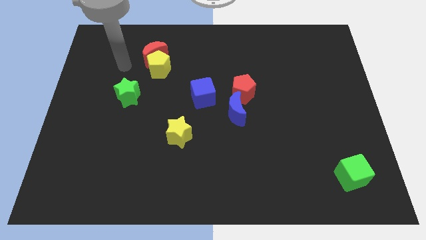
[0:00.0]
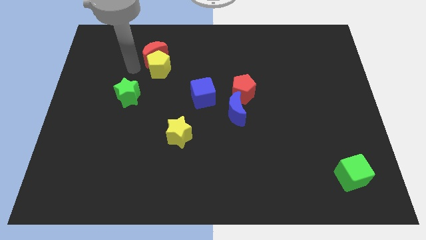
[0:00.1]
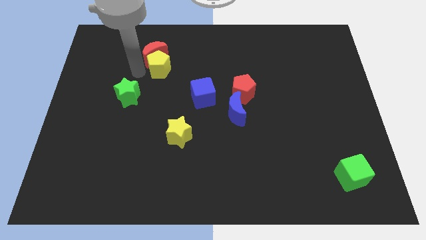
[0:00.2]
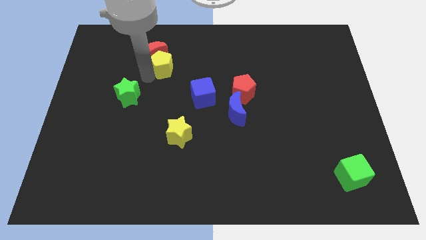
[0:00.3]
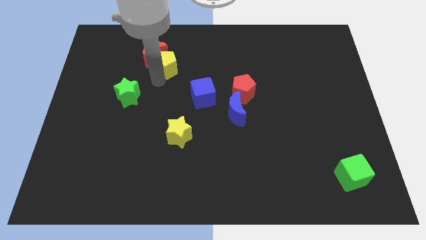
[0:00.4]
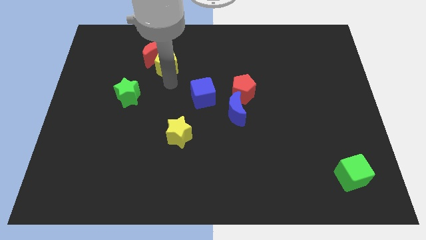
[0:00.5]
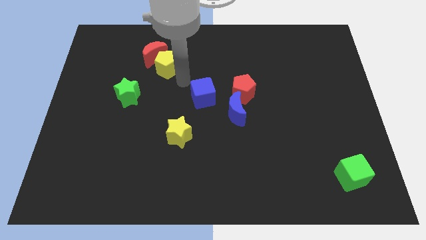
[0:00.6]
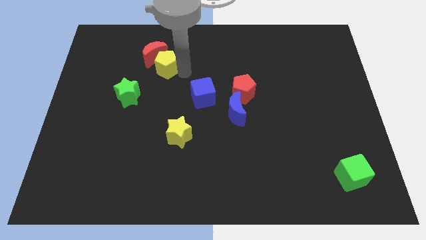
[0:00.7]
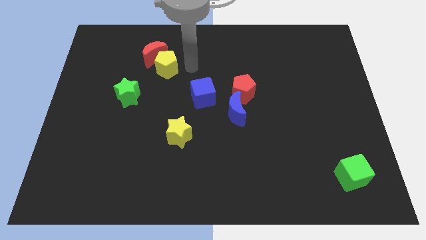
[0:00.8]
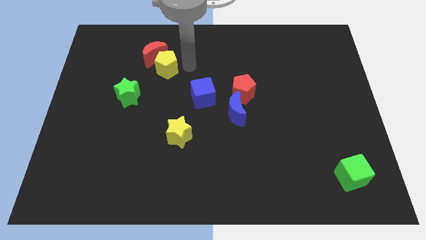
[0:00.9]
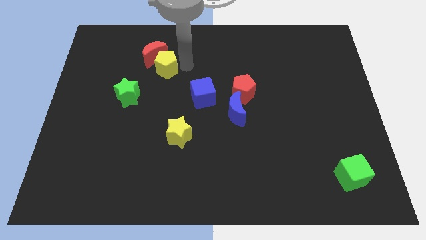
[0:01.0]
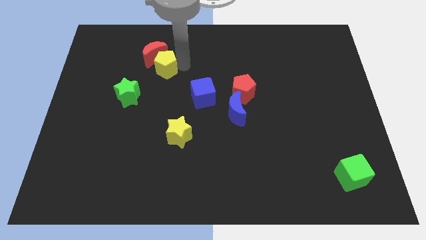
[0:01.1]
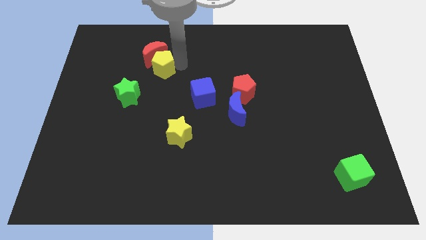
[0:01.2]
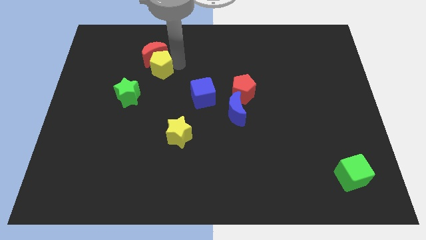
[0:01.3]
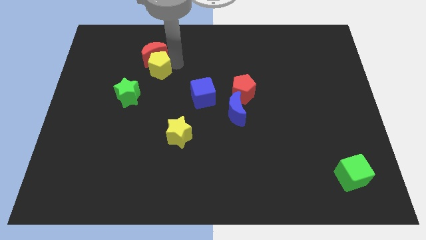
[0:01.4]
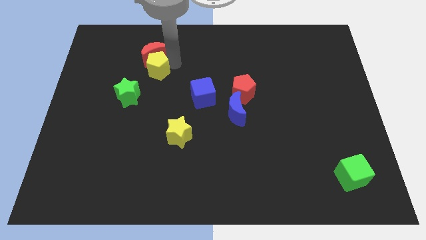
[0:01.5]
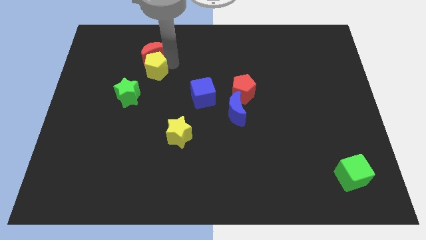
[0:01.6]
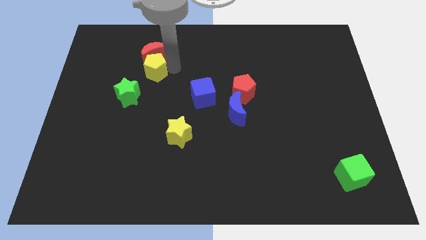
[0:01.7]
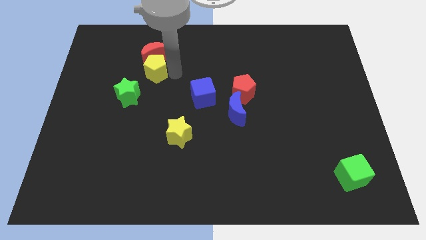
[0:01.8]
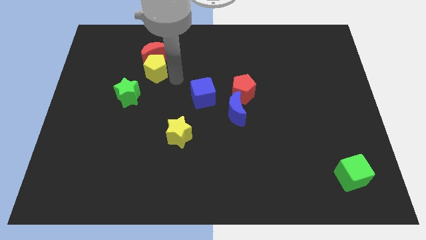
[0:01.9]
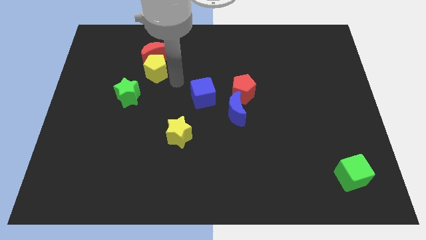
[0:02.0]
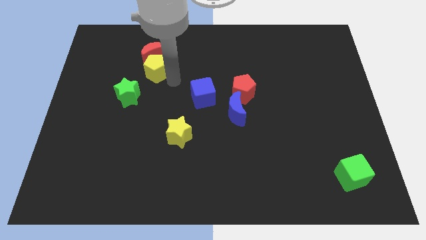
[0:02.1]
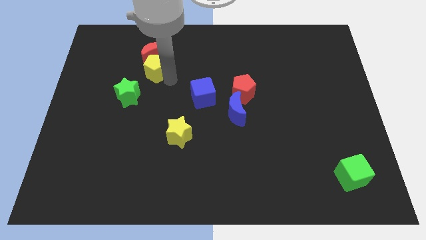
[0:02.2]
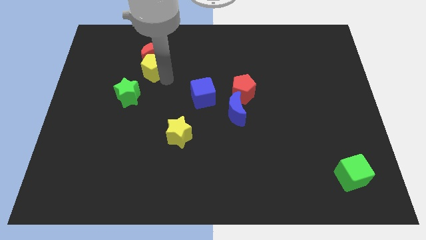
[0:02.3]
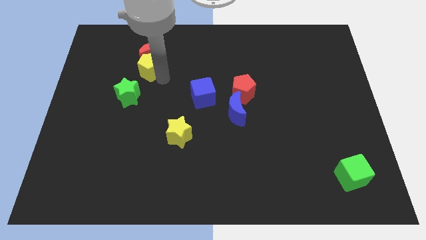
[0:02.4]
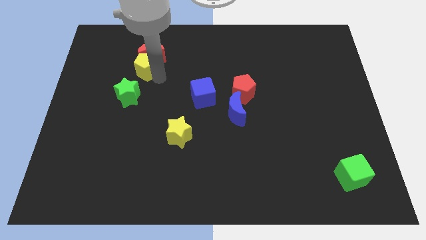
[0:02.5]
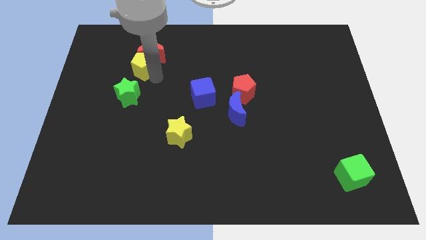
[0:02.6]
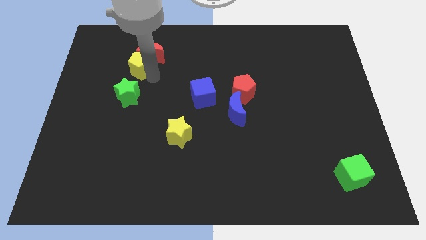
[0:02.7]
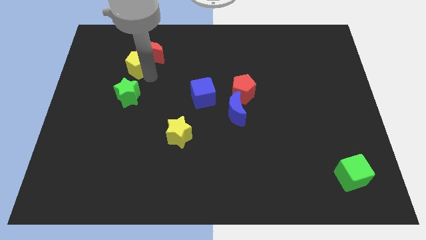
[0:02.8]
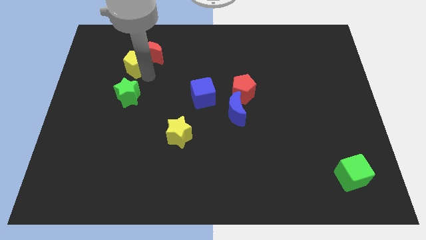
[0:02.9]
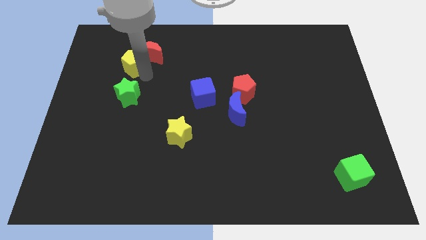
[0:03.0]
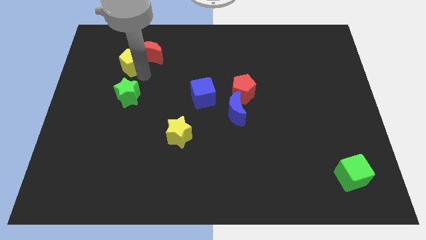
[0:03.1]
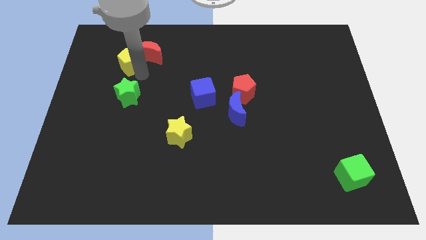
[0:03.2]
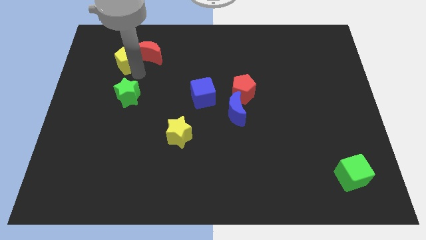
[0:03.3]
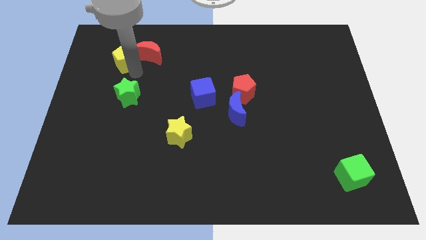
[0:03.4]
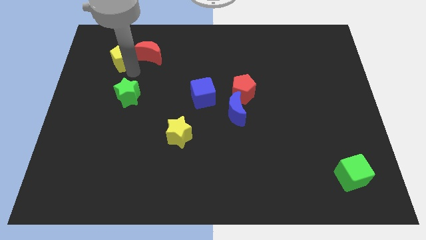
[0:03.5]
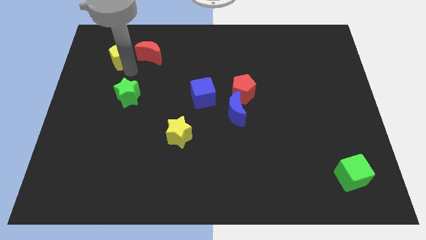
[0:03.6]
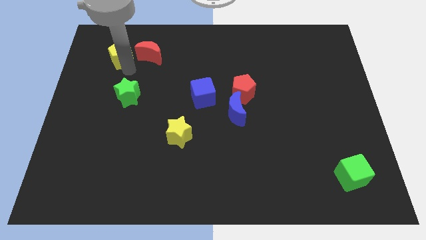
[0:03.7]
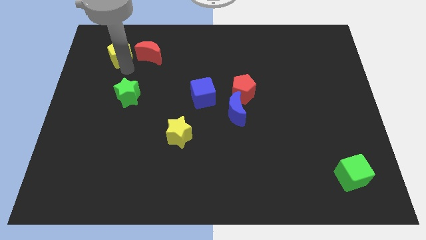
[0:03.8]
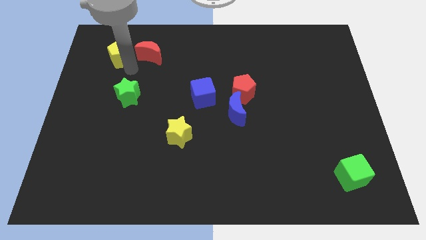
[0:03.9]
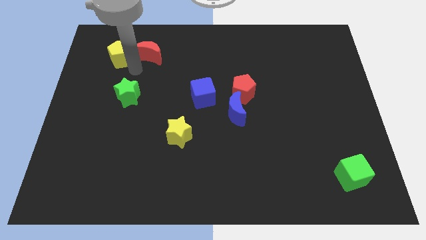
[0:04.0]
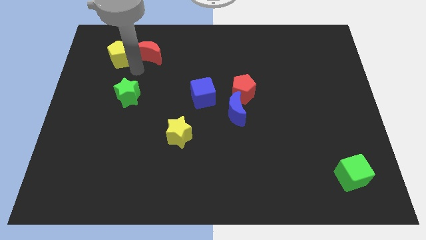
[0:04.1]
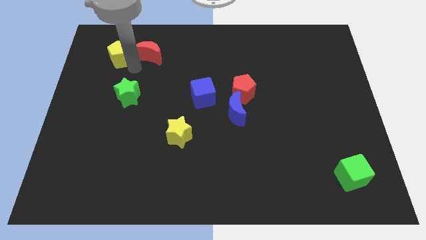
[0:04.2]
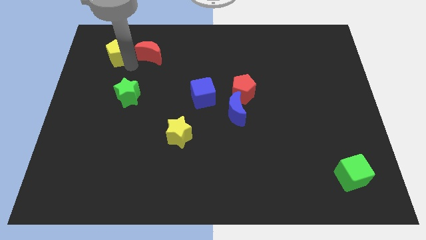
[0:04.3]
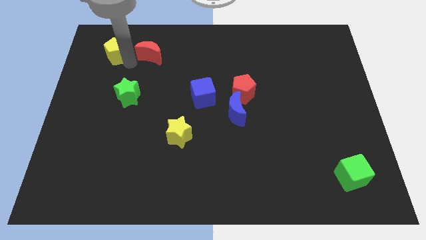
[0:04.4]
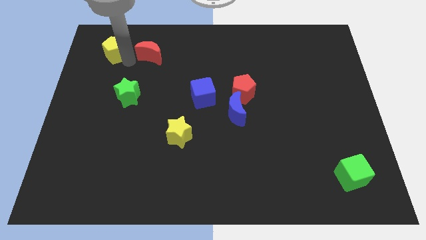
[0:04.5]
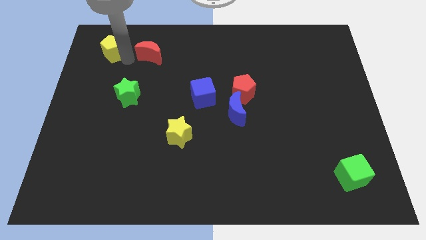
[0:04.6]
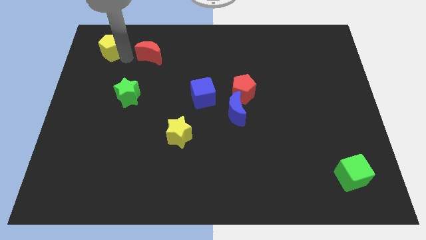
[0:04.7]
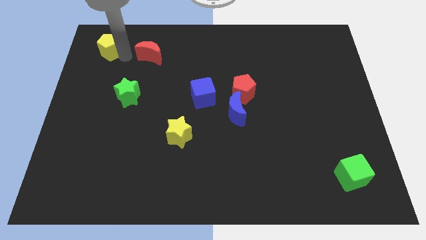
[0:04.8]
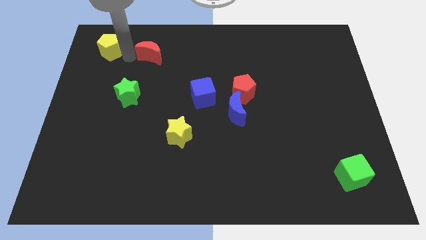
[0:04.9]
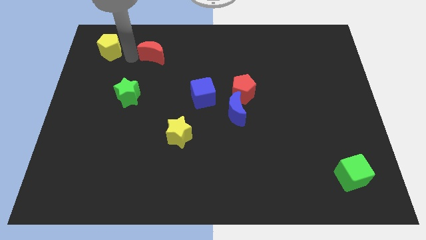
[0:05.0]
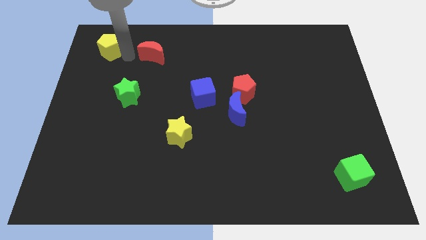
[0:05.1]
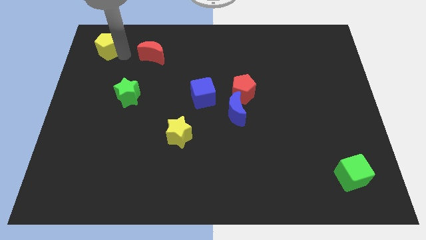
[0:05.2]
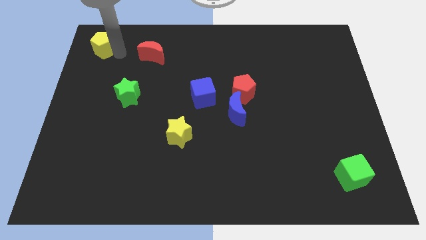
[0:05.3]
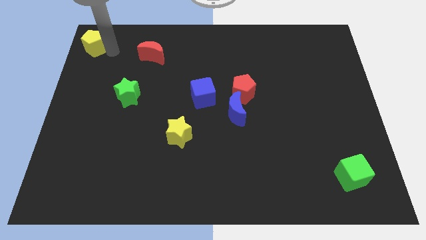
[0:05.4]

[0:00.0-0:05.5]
move the yellow pentagon to the upper left corner

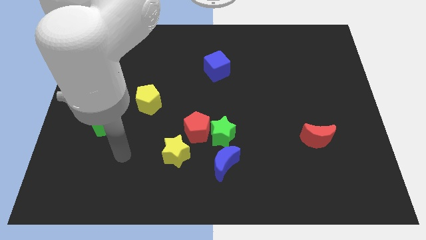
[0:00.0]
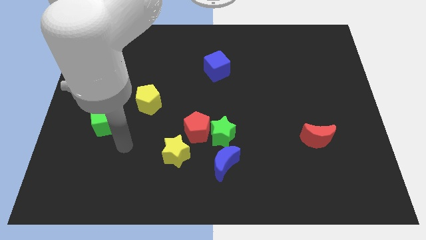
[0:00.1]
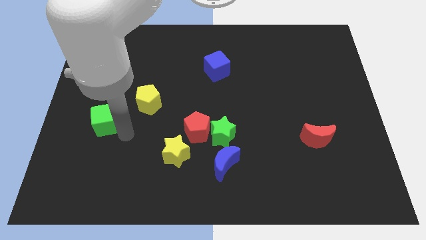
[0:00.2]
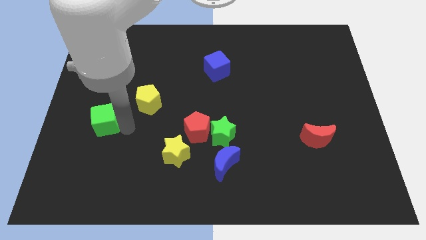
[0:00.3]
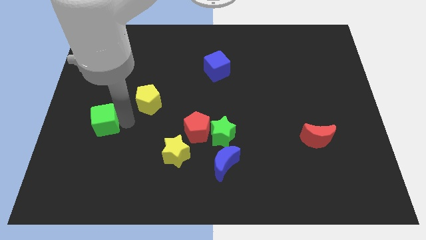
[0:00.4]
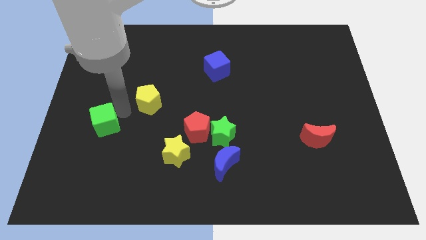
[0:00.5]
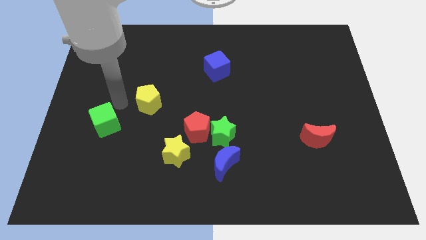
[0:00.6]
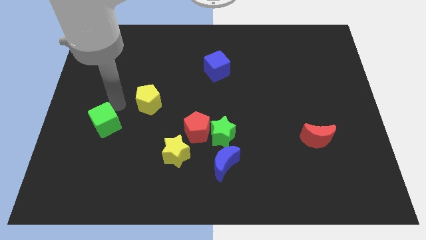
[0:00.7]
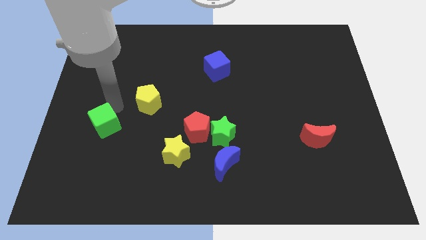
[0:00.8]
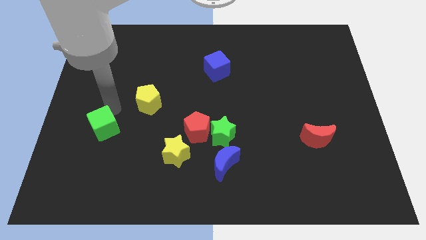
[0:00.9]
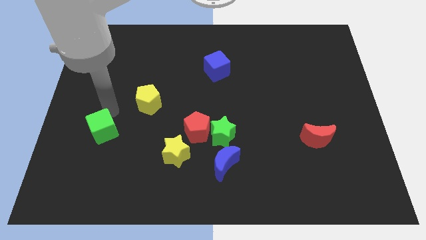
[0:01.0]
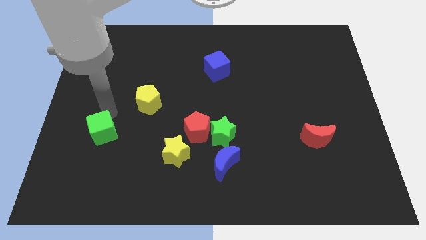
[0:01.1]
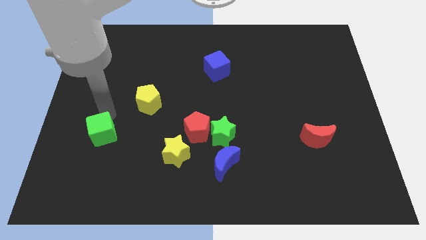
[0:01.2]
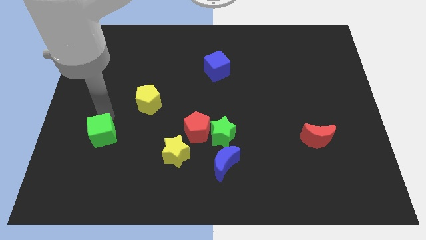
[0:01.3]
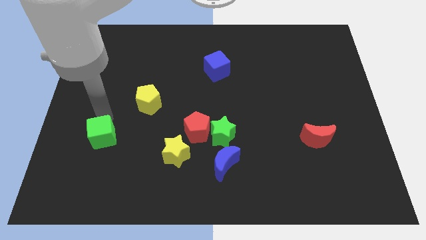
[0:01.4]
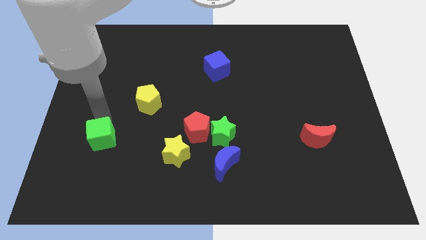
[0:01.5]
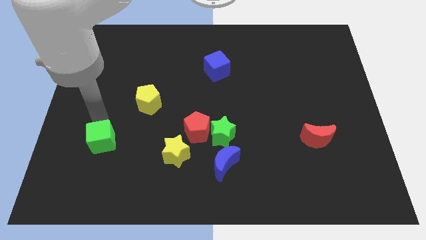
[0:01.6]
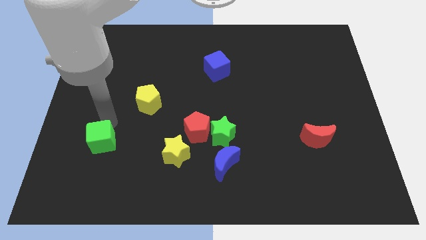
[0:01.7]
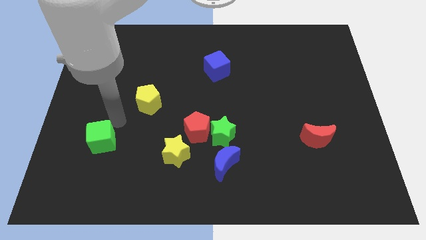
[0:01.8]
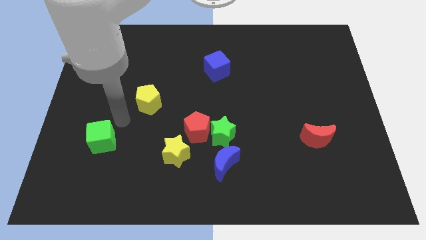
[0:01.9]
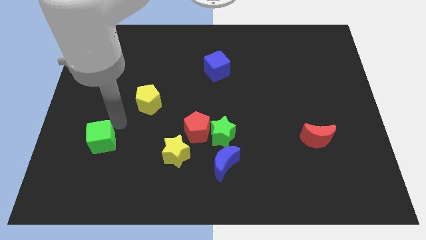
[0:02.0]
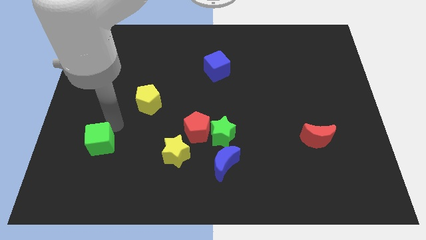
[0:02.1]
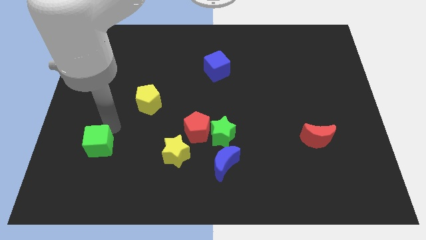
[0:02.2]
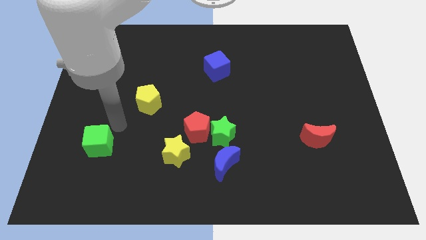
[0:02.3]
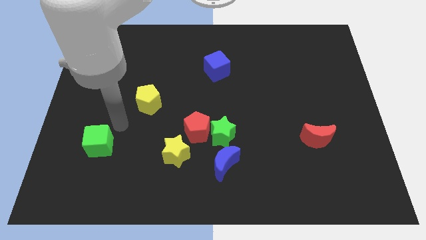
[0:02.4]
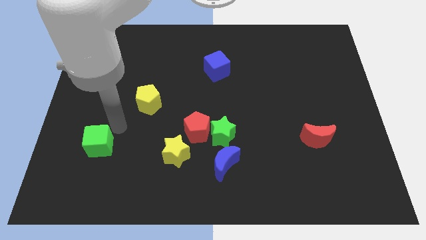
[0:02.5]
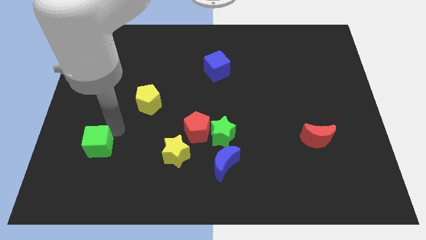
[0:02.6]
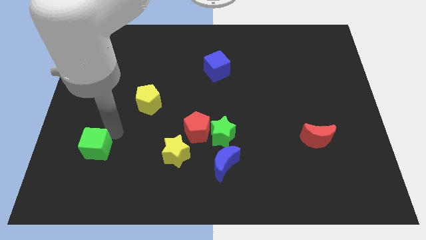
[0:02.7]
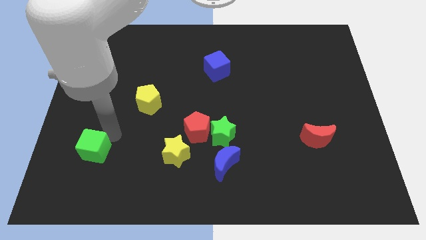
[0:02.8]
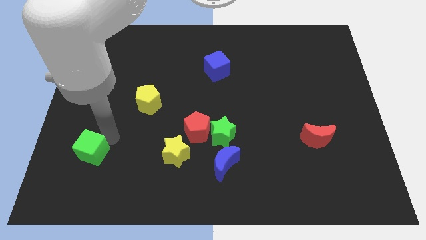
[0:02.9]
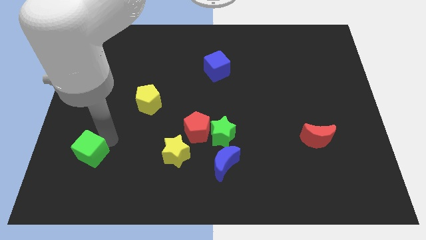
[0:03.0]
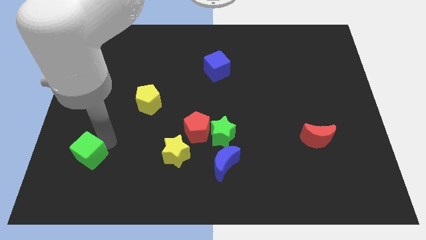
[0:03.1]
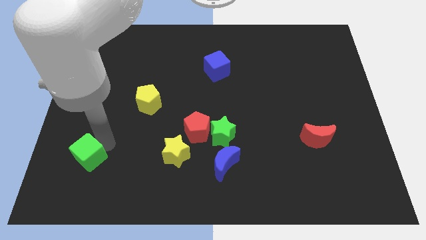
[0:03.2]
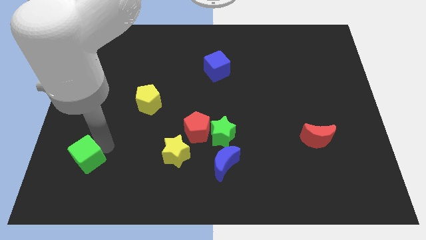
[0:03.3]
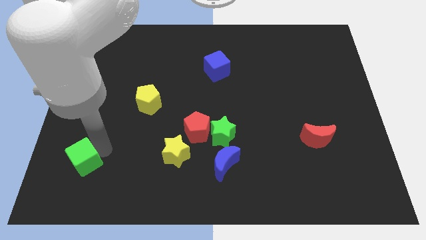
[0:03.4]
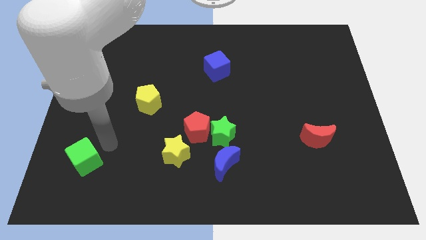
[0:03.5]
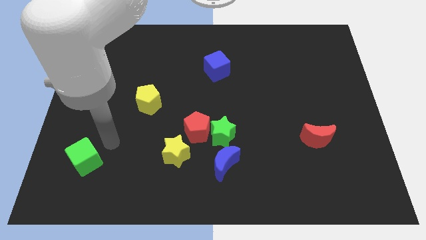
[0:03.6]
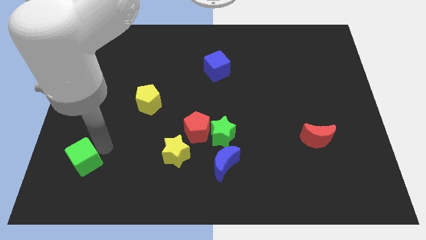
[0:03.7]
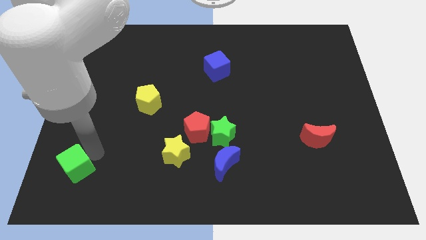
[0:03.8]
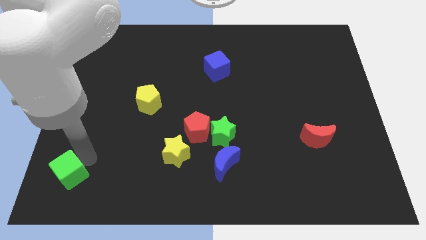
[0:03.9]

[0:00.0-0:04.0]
move the green cube to the bottom left corner
